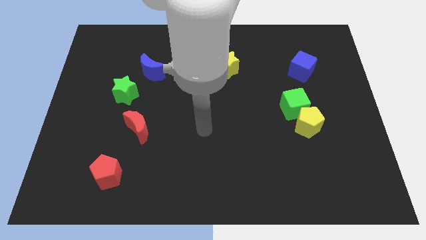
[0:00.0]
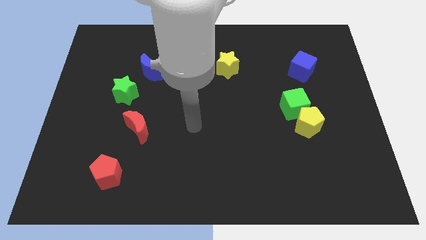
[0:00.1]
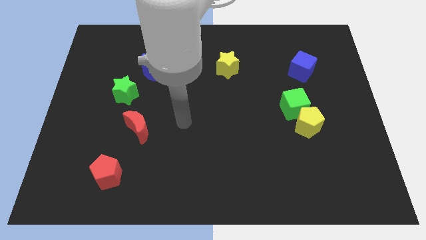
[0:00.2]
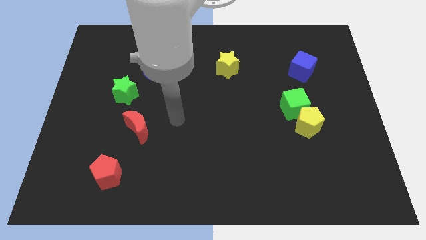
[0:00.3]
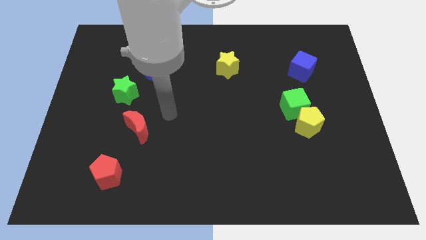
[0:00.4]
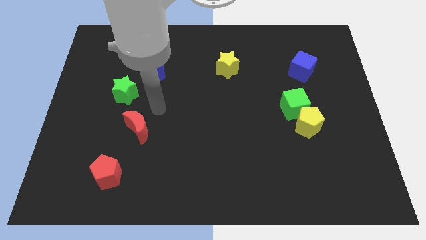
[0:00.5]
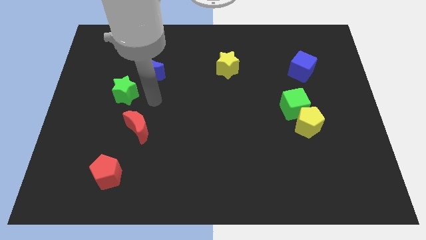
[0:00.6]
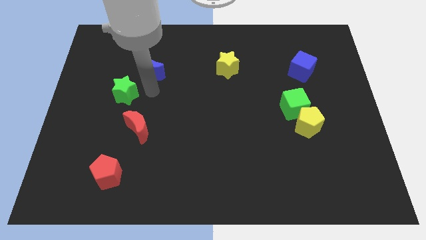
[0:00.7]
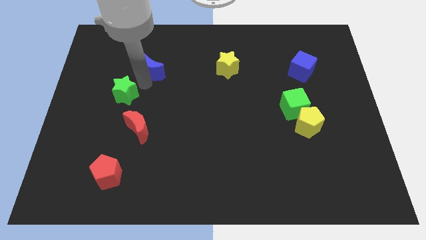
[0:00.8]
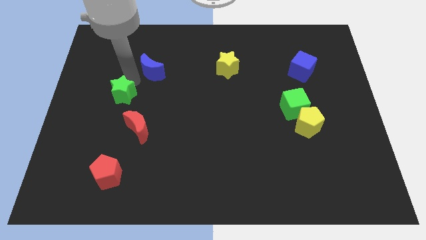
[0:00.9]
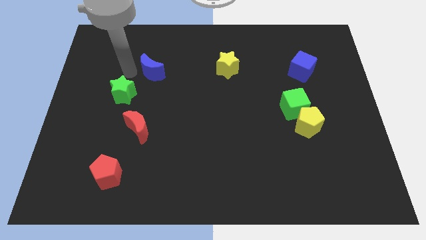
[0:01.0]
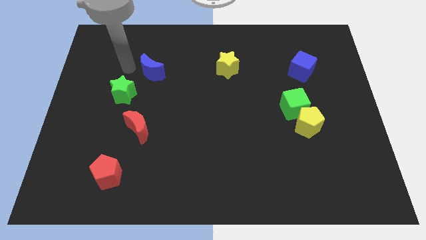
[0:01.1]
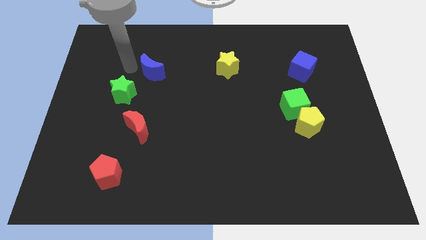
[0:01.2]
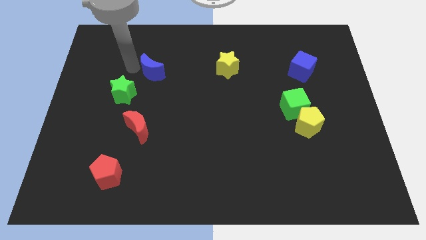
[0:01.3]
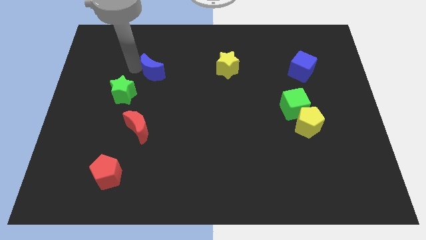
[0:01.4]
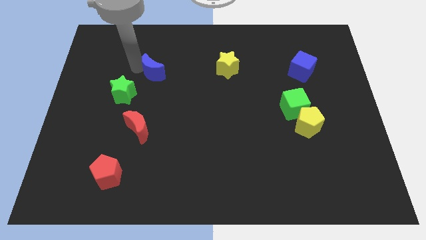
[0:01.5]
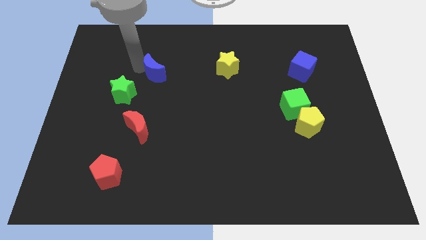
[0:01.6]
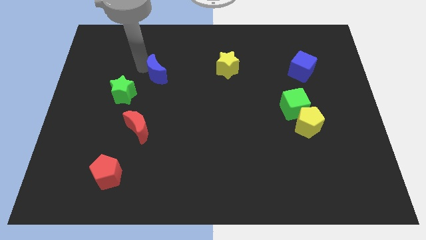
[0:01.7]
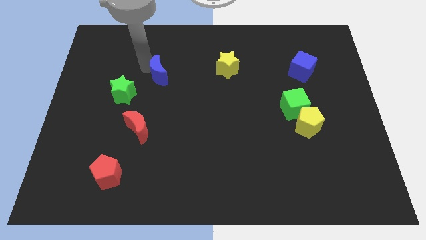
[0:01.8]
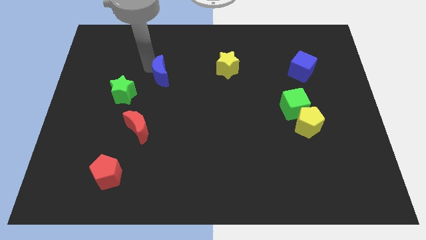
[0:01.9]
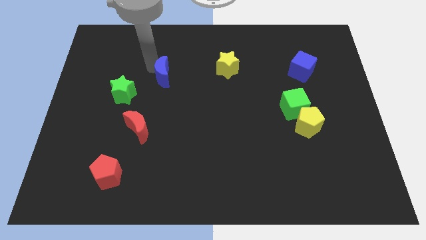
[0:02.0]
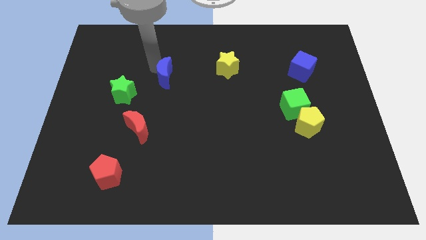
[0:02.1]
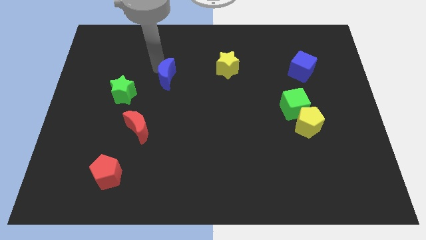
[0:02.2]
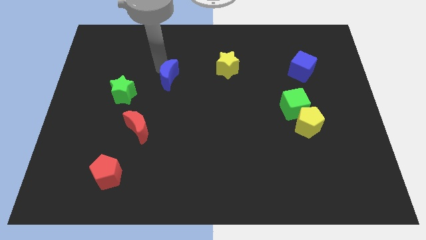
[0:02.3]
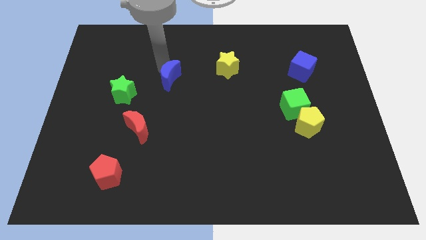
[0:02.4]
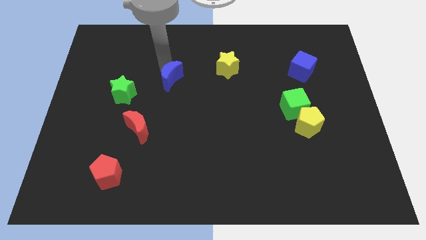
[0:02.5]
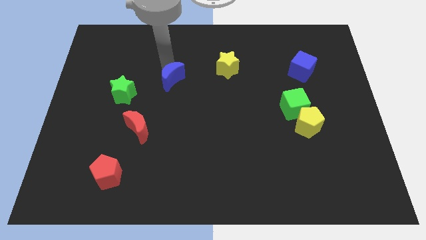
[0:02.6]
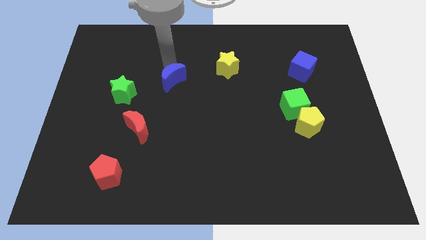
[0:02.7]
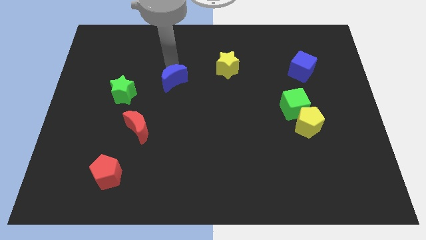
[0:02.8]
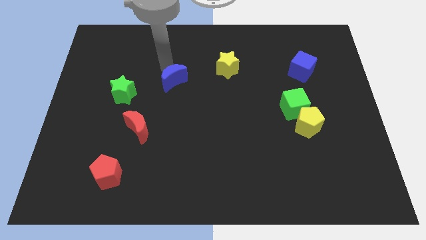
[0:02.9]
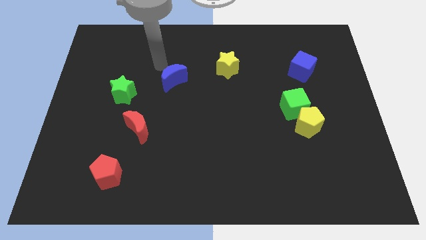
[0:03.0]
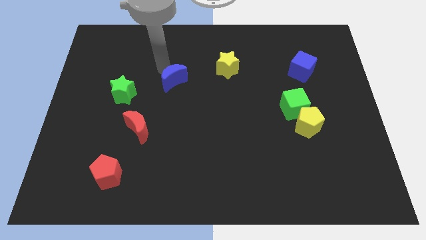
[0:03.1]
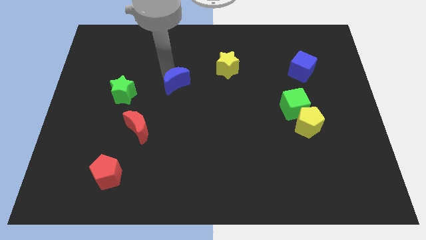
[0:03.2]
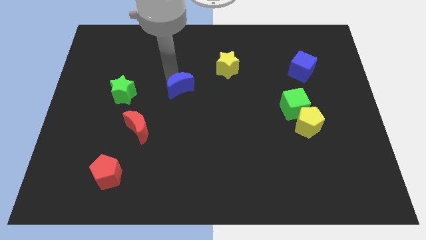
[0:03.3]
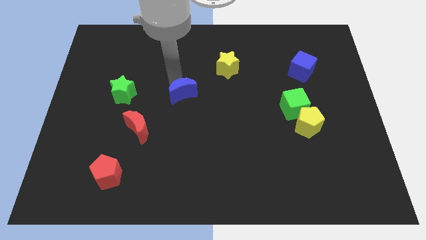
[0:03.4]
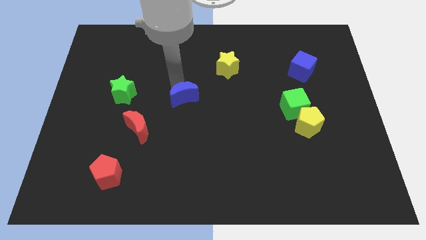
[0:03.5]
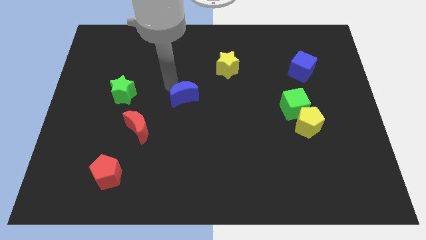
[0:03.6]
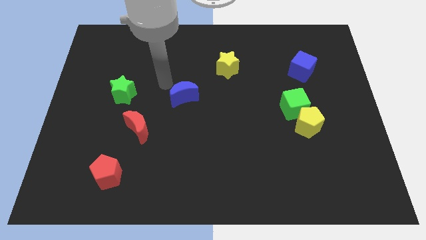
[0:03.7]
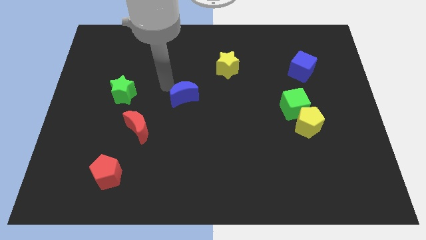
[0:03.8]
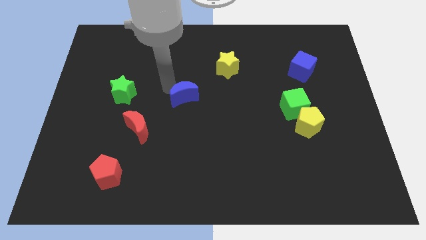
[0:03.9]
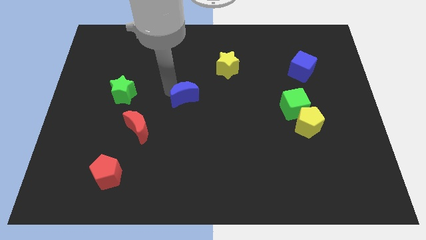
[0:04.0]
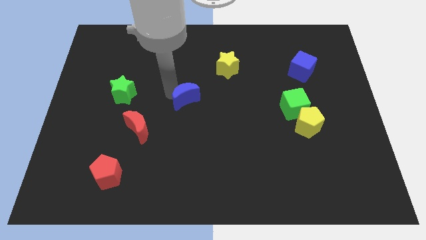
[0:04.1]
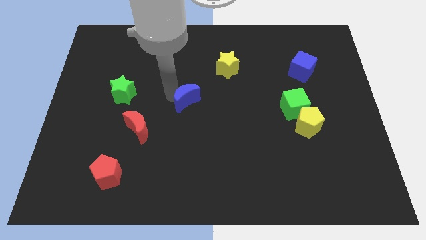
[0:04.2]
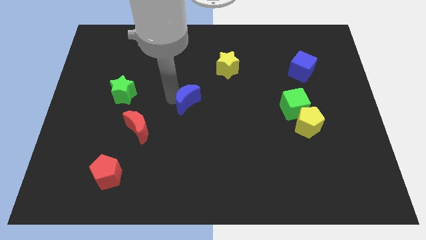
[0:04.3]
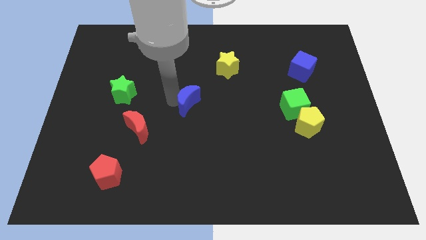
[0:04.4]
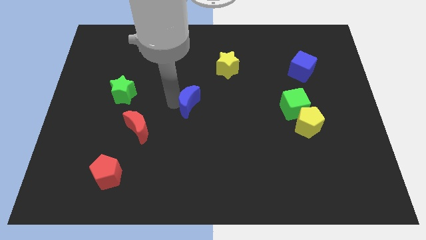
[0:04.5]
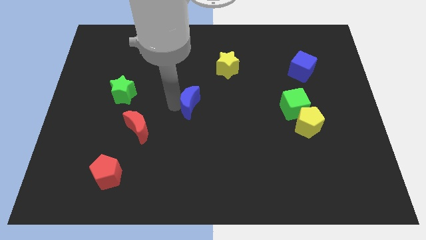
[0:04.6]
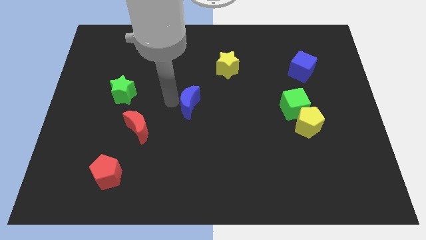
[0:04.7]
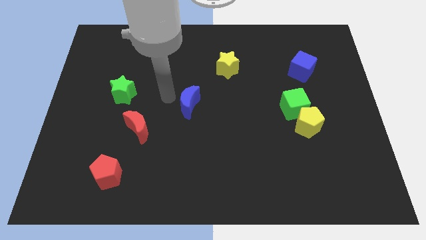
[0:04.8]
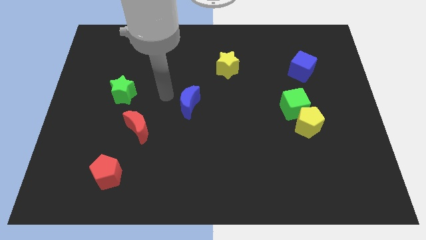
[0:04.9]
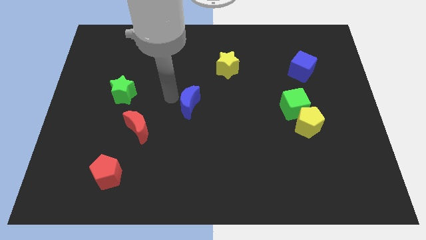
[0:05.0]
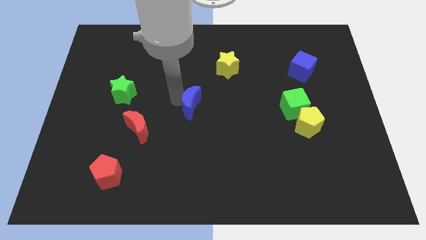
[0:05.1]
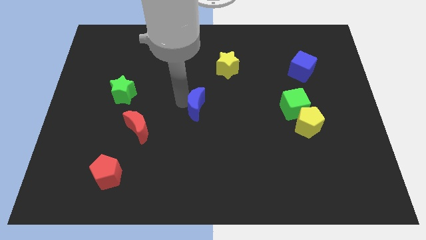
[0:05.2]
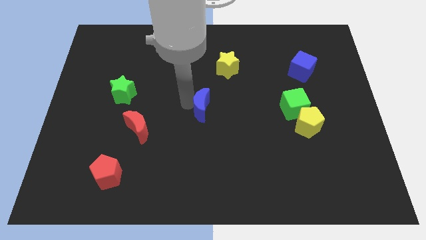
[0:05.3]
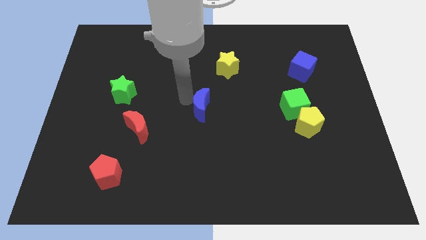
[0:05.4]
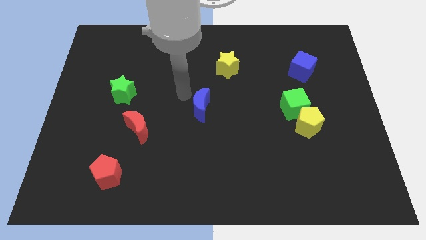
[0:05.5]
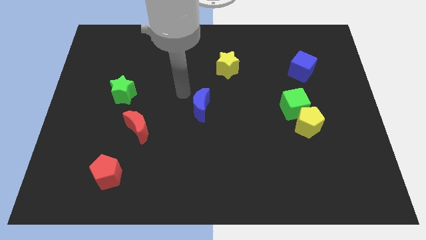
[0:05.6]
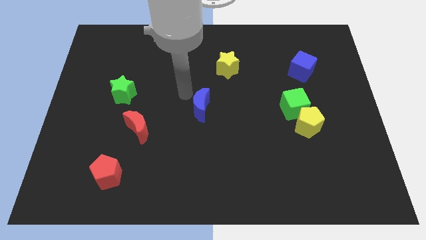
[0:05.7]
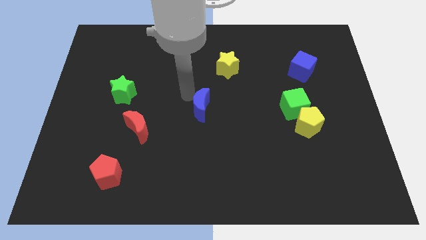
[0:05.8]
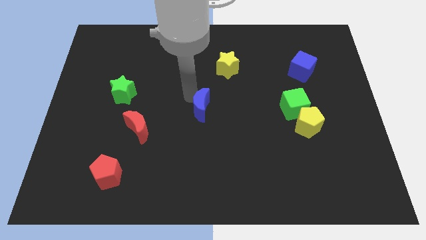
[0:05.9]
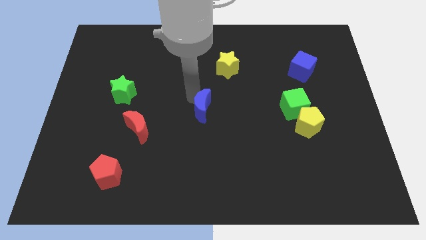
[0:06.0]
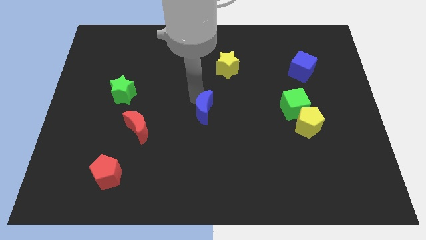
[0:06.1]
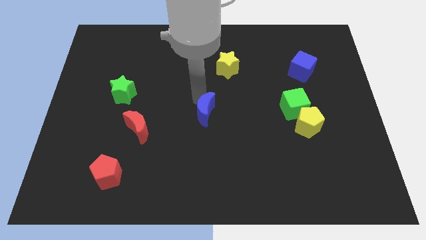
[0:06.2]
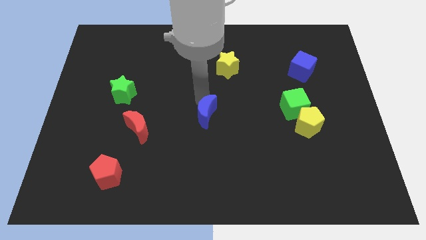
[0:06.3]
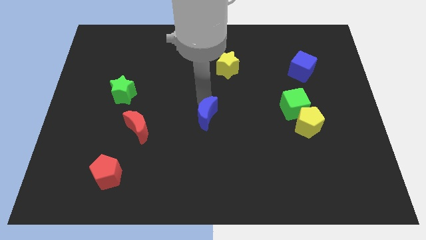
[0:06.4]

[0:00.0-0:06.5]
move the blue moon downwards and to the right

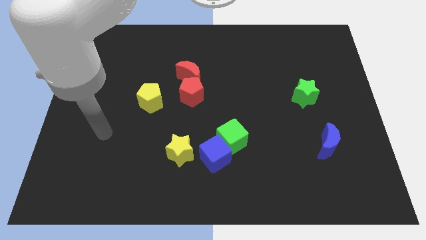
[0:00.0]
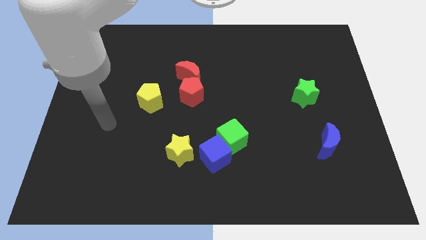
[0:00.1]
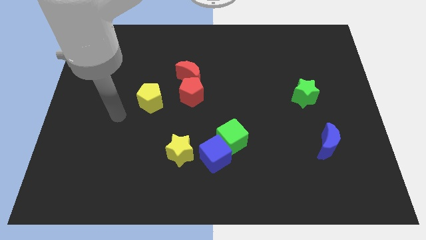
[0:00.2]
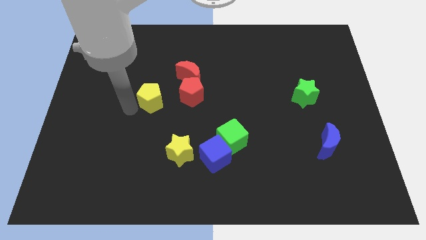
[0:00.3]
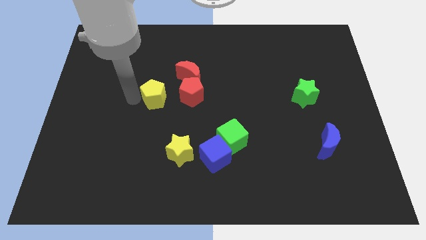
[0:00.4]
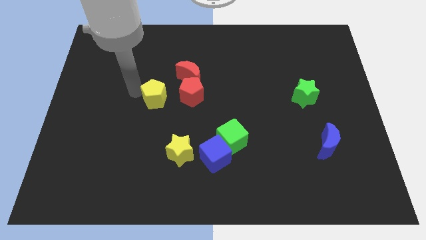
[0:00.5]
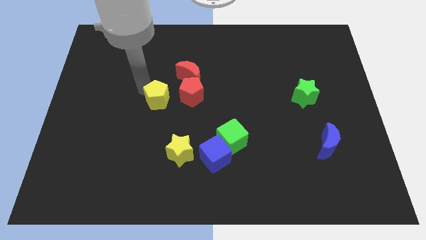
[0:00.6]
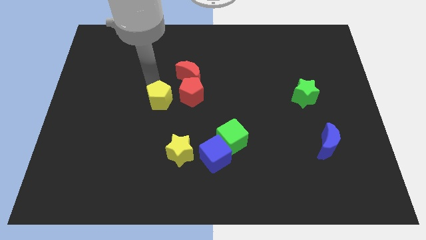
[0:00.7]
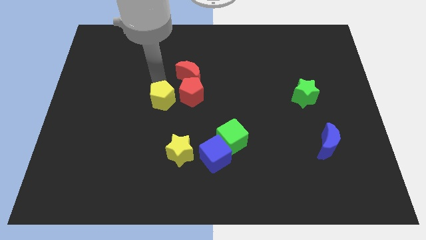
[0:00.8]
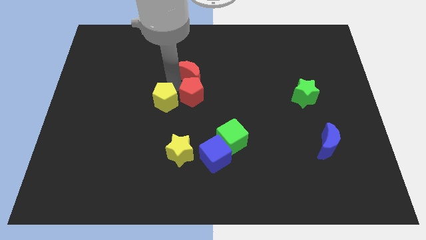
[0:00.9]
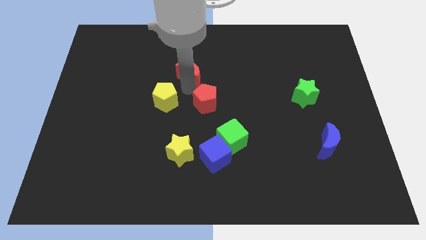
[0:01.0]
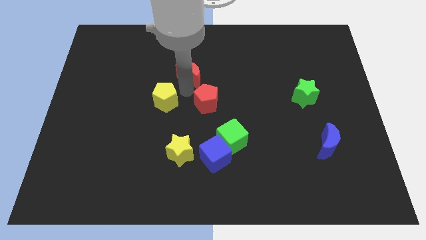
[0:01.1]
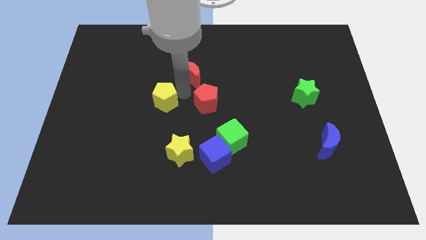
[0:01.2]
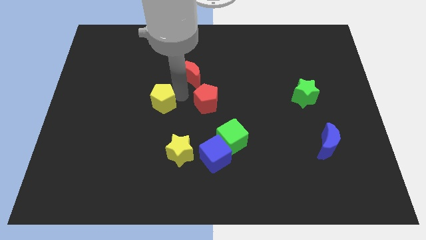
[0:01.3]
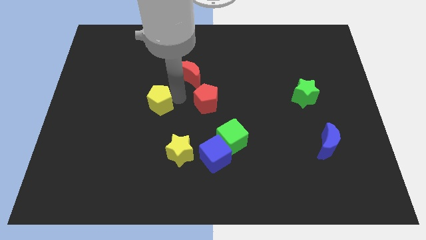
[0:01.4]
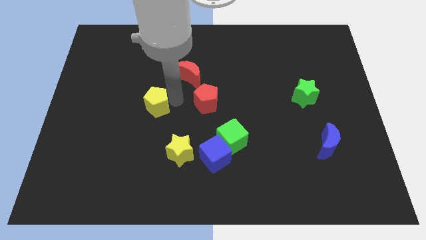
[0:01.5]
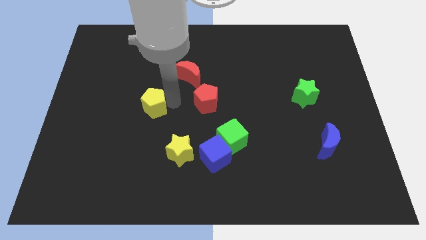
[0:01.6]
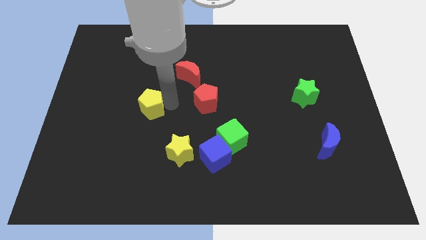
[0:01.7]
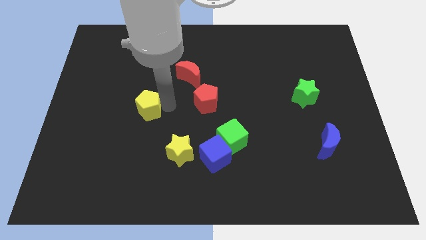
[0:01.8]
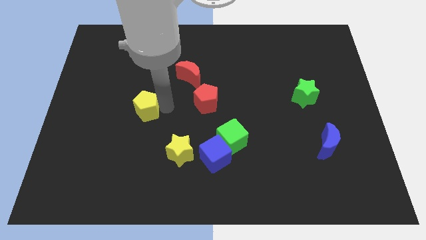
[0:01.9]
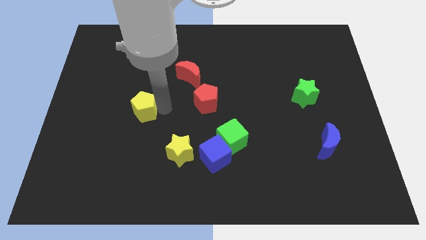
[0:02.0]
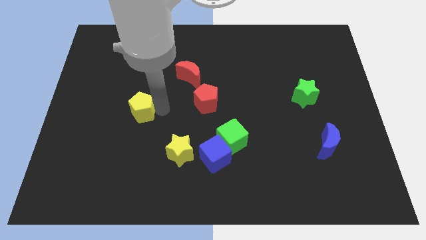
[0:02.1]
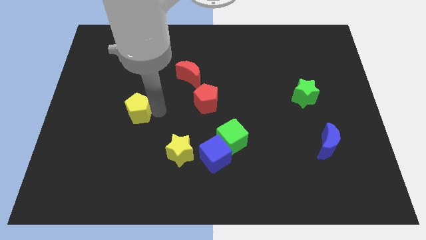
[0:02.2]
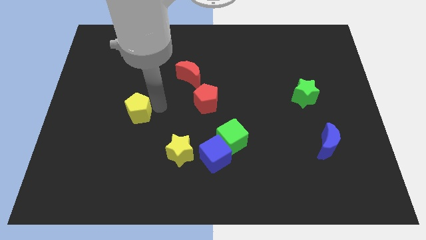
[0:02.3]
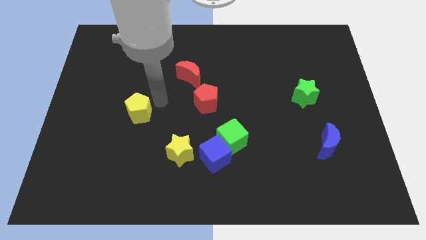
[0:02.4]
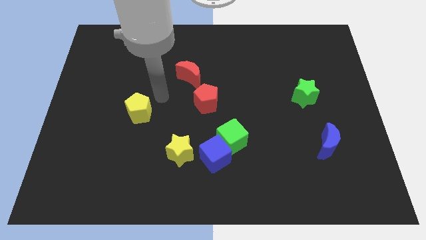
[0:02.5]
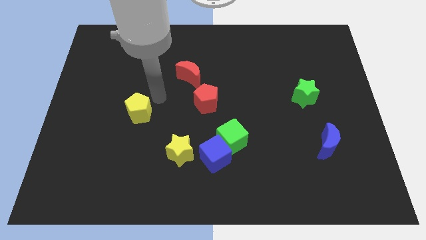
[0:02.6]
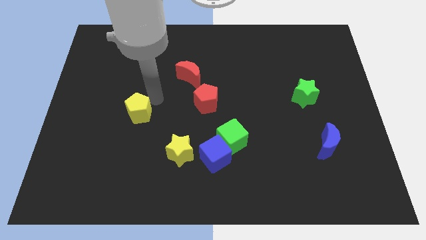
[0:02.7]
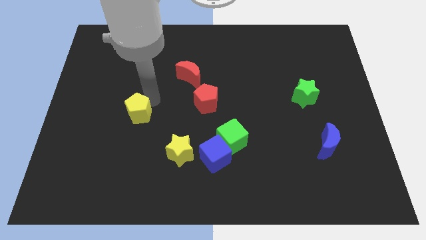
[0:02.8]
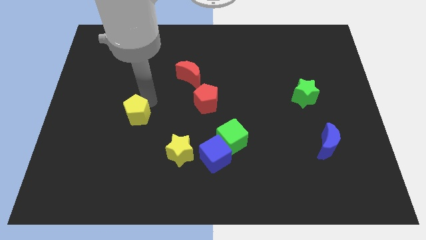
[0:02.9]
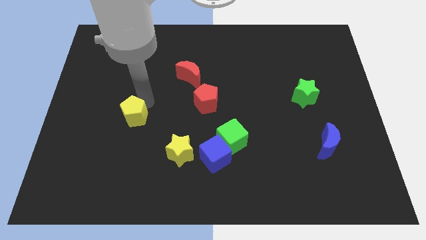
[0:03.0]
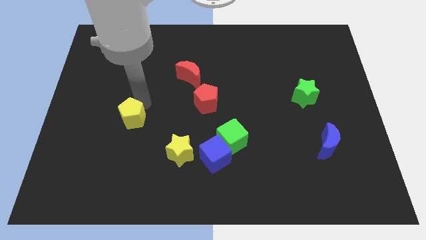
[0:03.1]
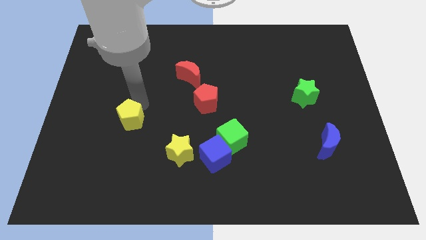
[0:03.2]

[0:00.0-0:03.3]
slide the yellow pentagon a little bit downwards and left
